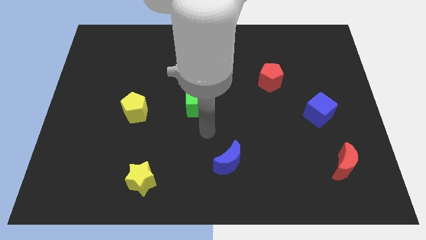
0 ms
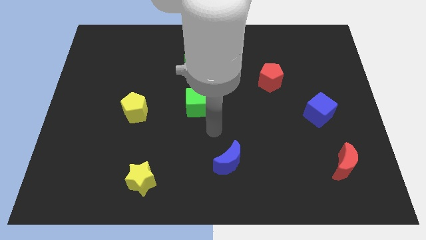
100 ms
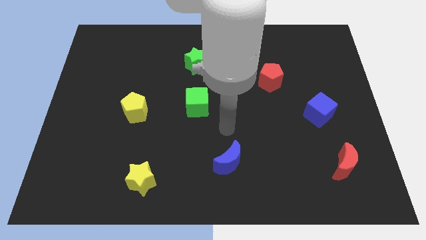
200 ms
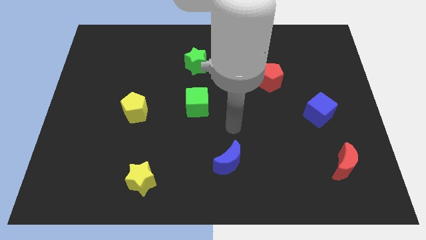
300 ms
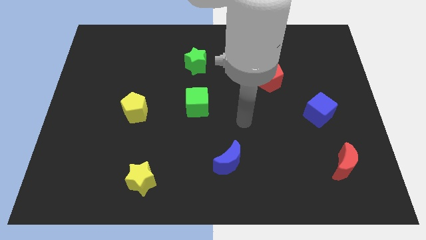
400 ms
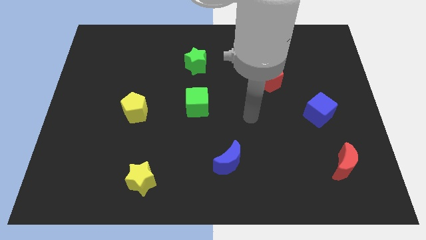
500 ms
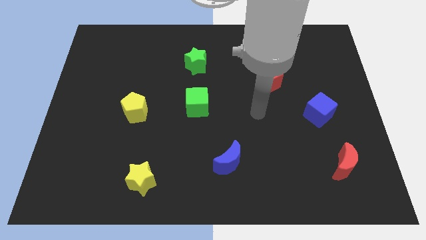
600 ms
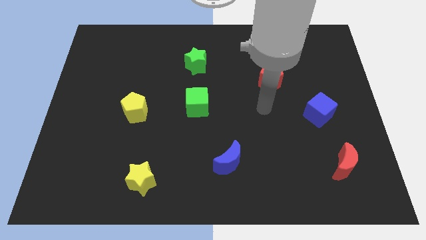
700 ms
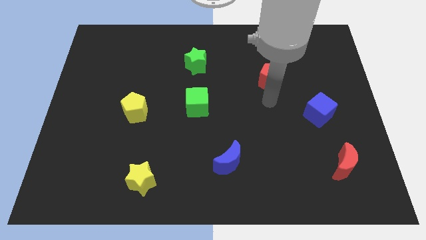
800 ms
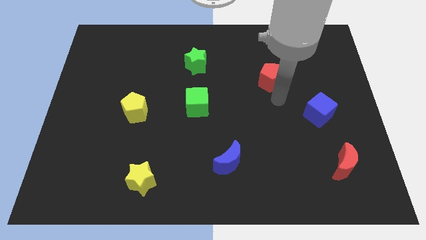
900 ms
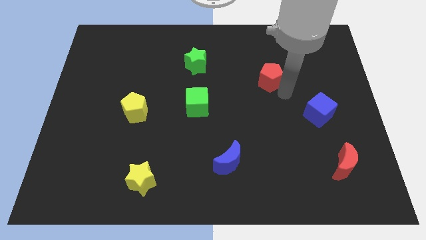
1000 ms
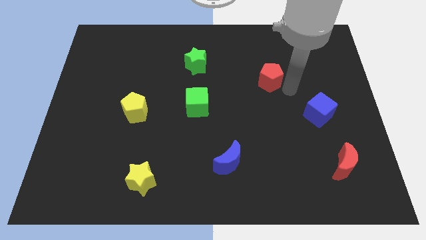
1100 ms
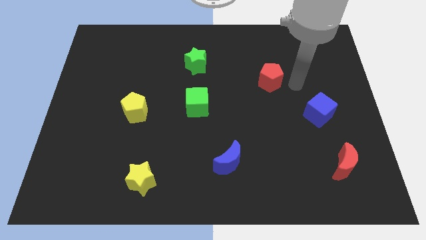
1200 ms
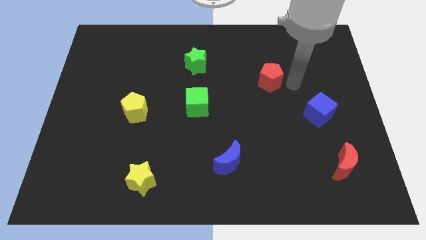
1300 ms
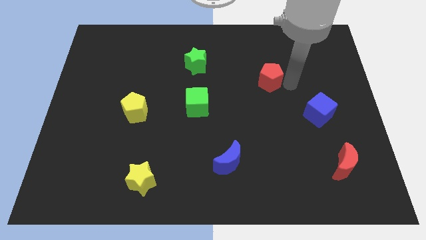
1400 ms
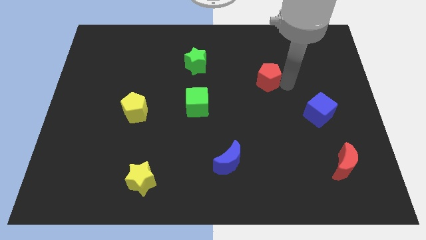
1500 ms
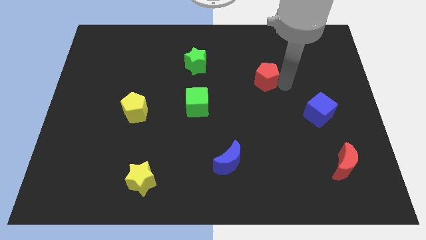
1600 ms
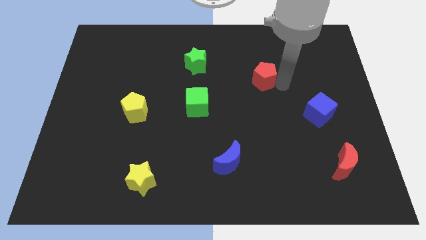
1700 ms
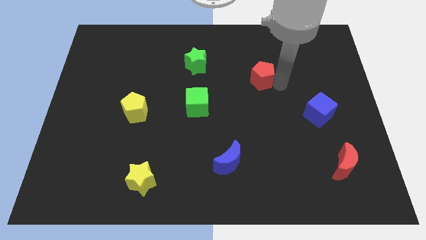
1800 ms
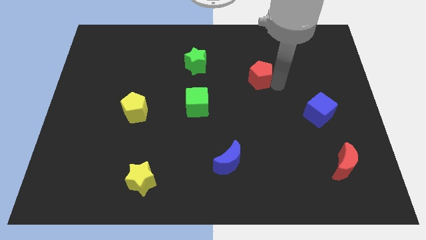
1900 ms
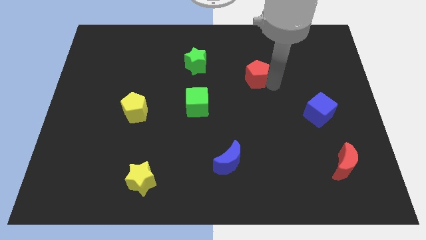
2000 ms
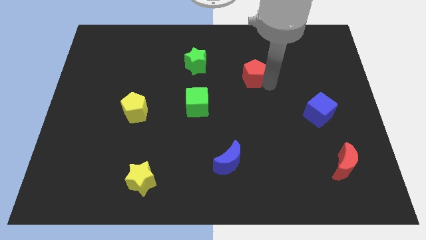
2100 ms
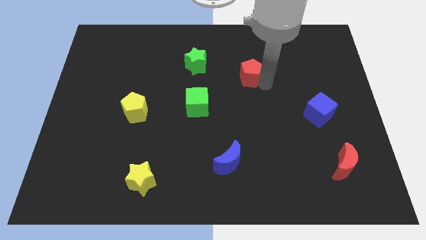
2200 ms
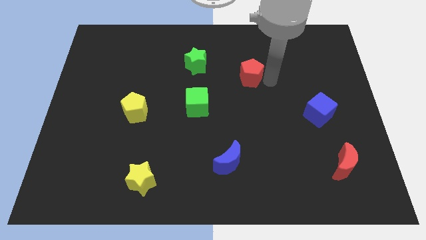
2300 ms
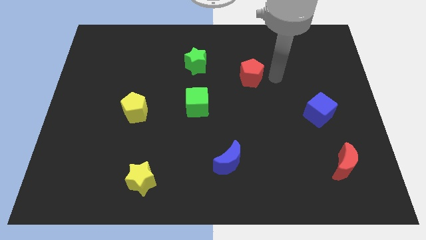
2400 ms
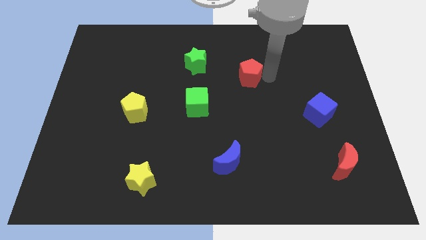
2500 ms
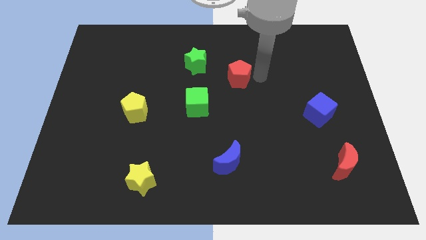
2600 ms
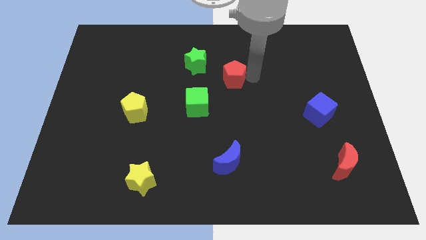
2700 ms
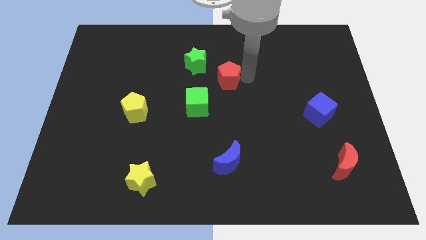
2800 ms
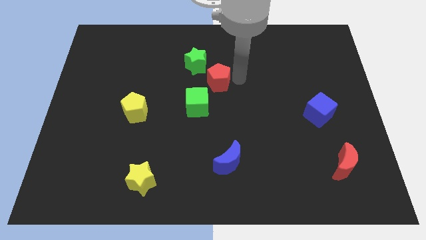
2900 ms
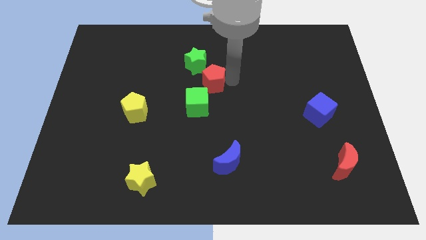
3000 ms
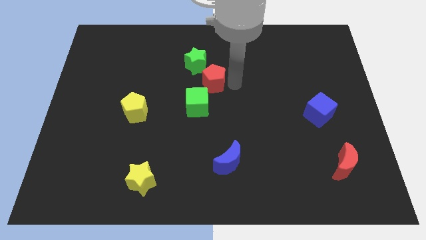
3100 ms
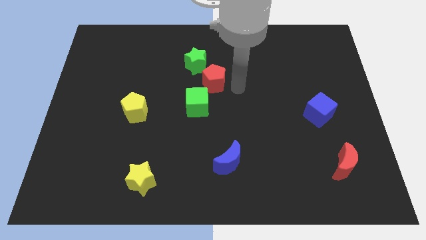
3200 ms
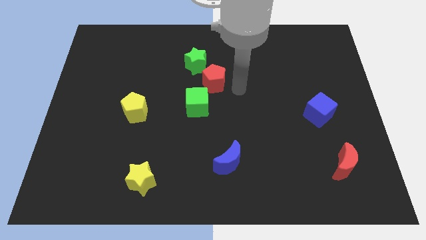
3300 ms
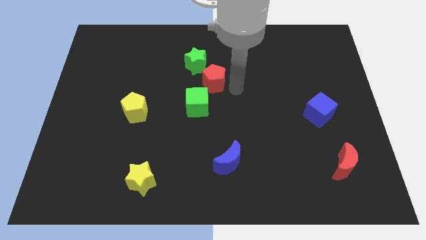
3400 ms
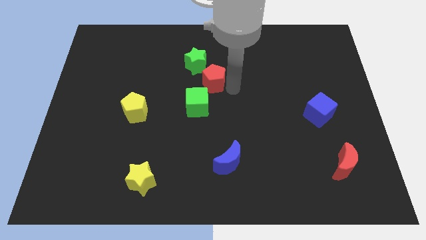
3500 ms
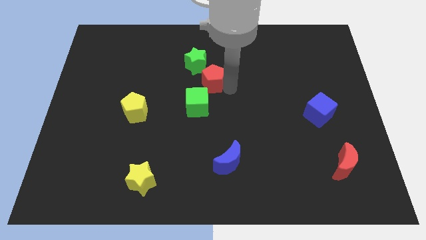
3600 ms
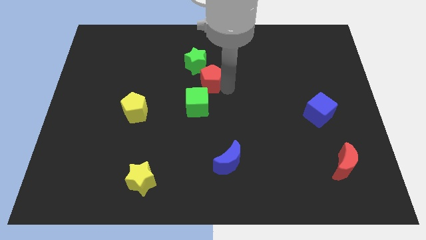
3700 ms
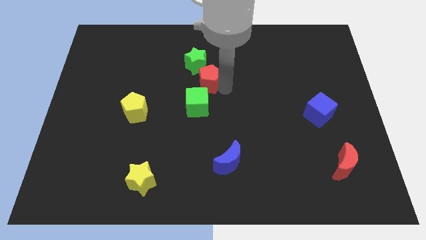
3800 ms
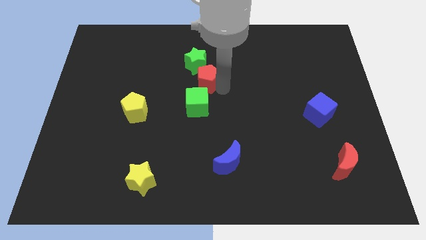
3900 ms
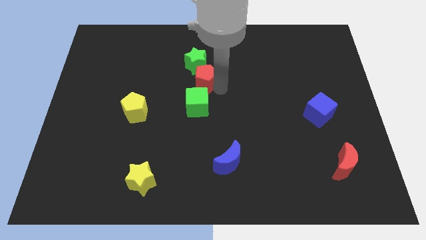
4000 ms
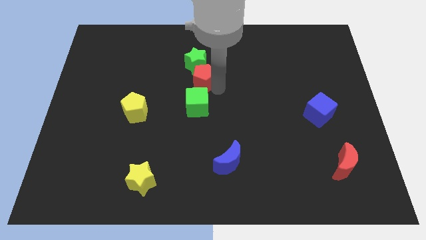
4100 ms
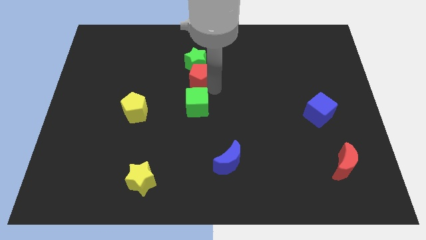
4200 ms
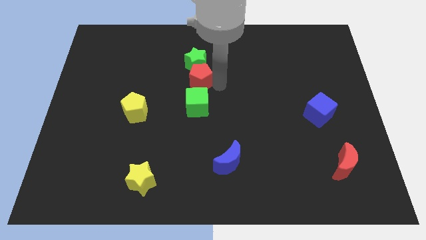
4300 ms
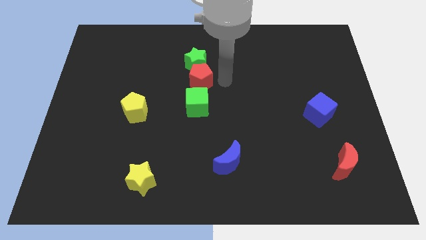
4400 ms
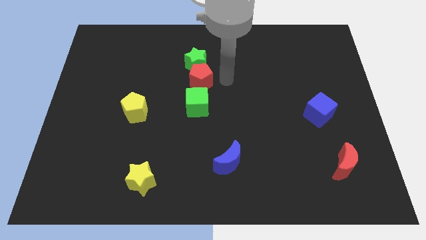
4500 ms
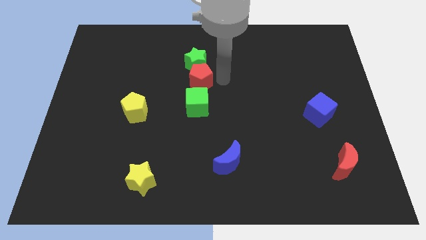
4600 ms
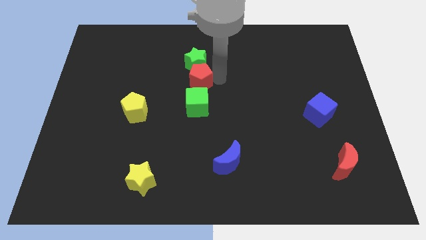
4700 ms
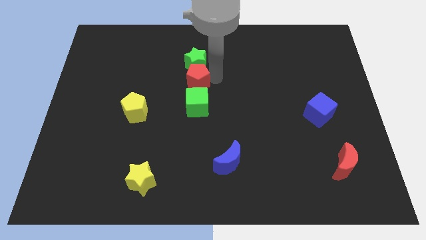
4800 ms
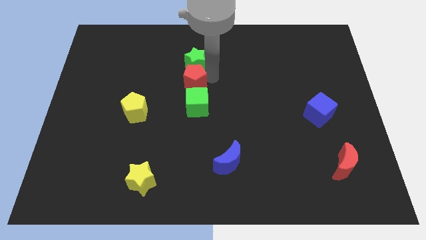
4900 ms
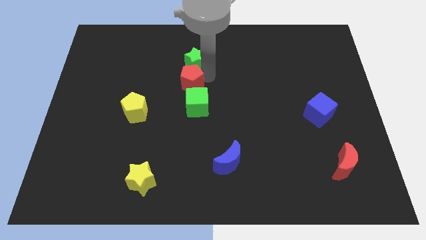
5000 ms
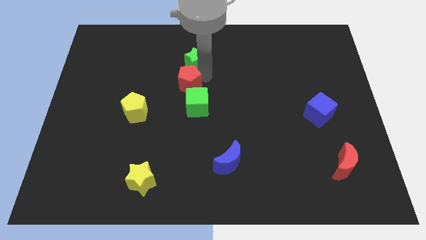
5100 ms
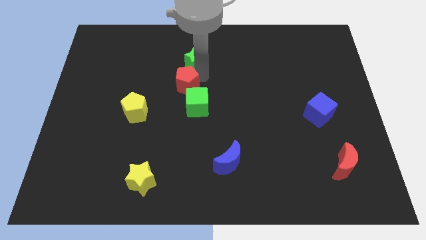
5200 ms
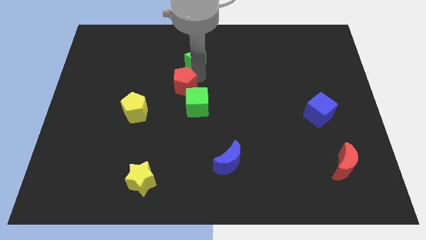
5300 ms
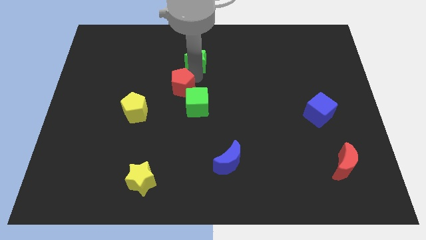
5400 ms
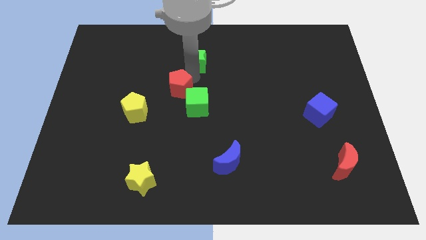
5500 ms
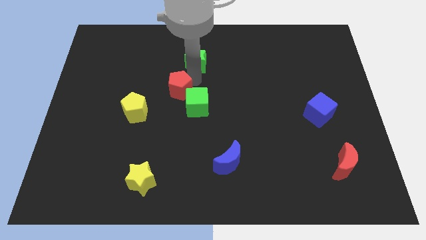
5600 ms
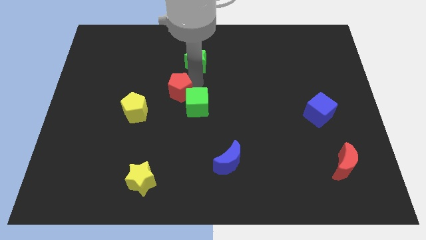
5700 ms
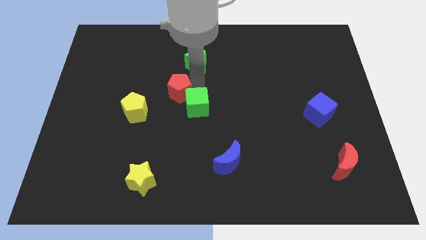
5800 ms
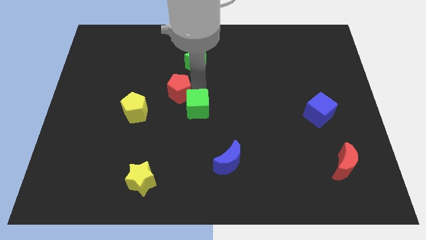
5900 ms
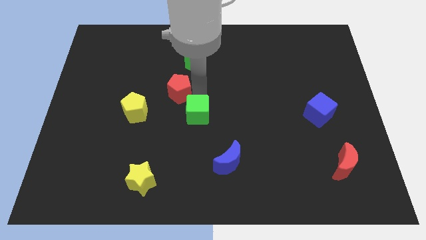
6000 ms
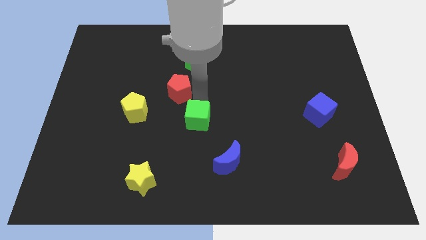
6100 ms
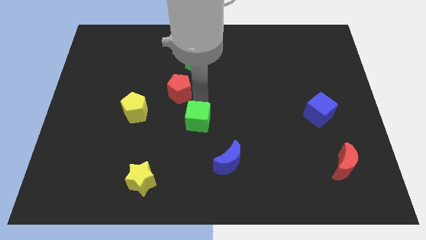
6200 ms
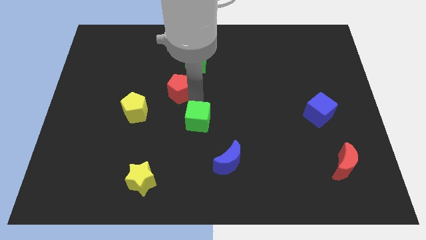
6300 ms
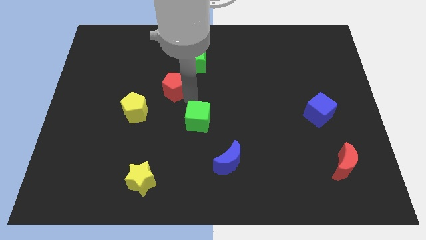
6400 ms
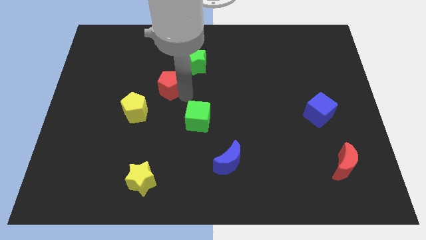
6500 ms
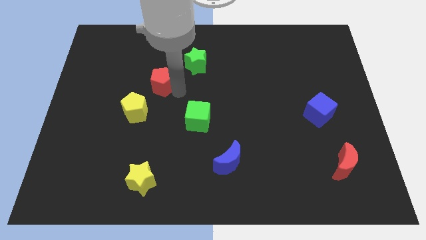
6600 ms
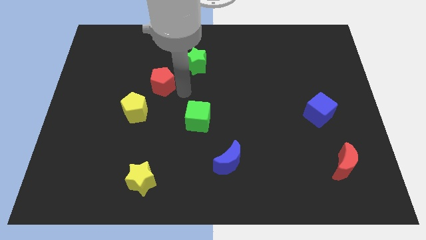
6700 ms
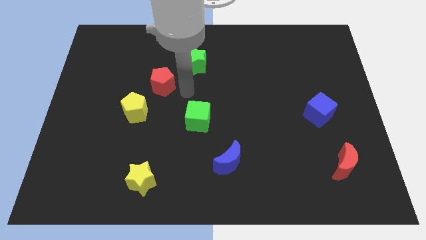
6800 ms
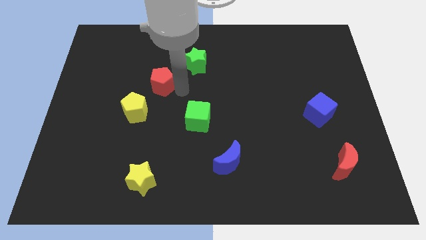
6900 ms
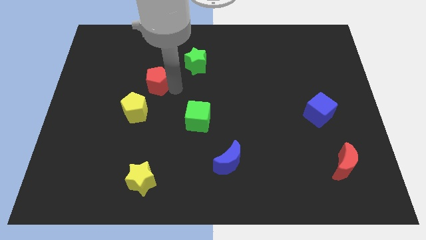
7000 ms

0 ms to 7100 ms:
slide the red pentagon to the top of the yellow pentagon
